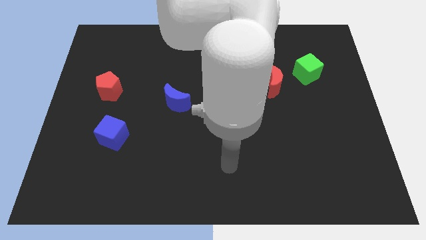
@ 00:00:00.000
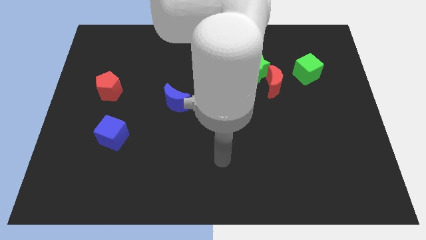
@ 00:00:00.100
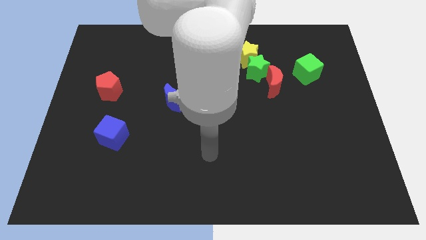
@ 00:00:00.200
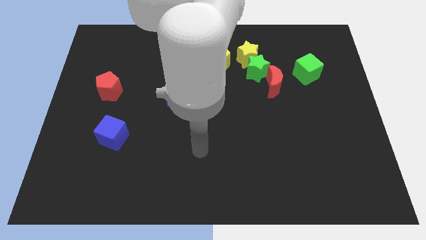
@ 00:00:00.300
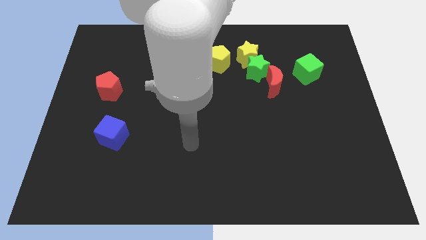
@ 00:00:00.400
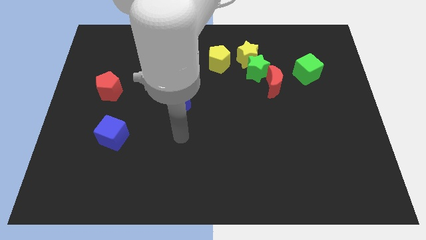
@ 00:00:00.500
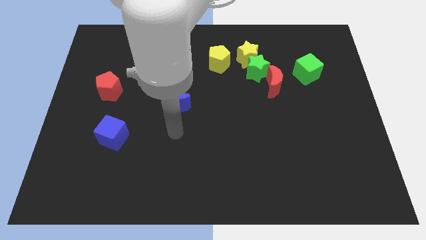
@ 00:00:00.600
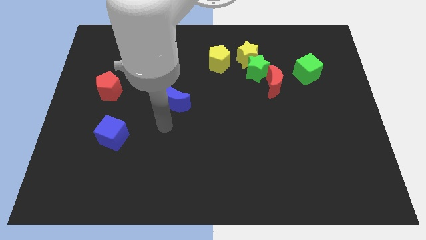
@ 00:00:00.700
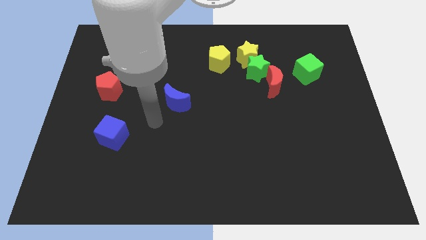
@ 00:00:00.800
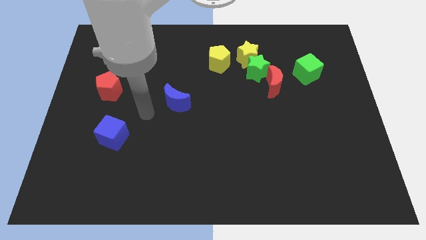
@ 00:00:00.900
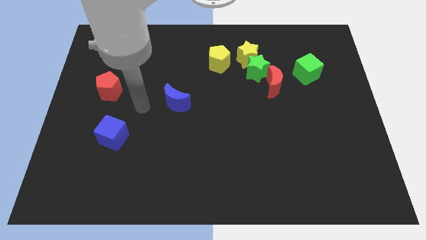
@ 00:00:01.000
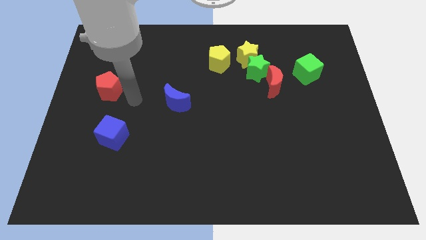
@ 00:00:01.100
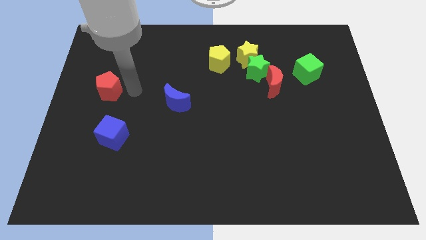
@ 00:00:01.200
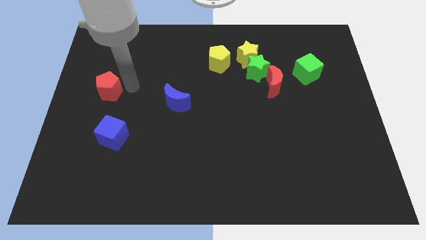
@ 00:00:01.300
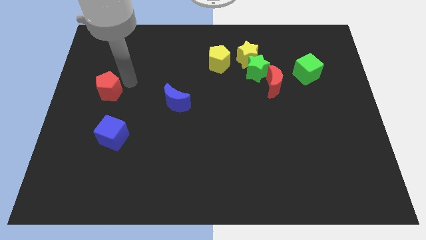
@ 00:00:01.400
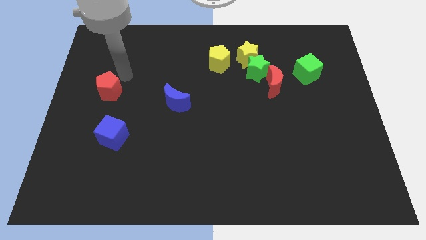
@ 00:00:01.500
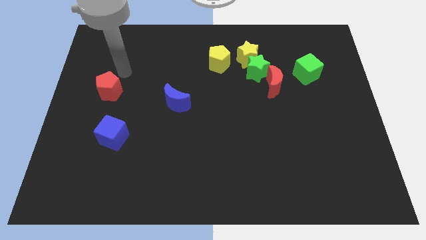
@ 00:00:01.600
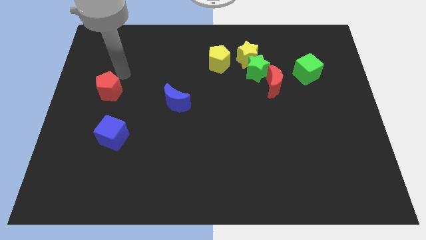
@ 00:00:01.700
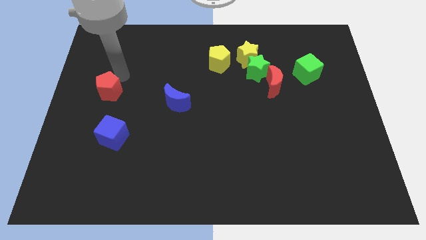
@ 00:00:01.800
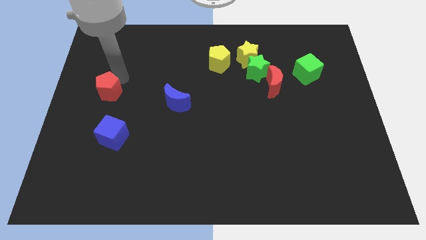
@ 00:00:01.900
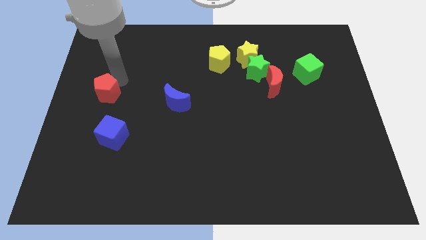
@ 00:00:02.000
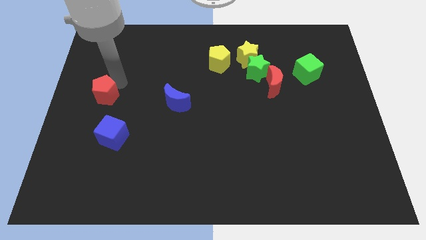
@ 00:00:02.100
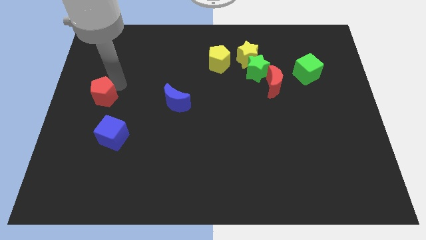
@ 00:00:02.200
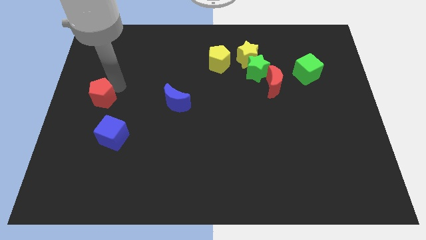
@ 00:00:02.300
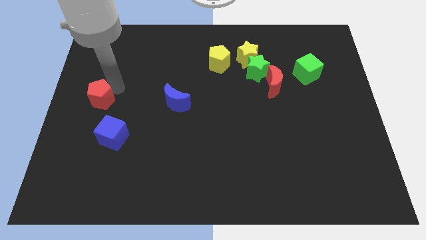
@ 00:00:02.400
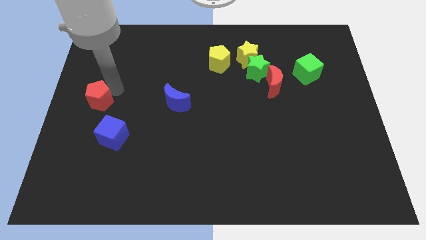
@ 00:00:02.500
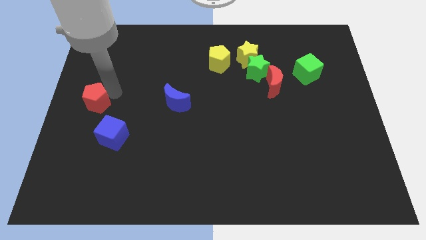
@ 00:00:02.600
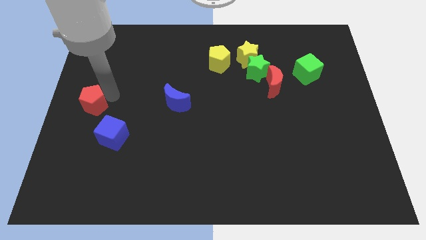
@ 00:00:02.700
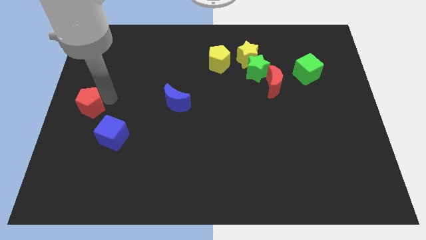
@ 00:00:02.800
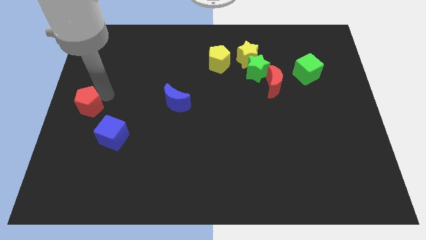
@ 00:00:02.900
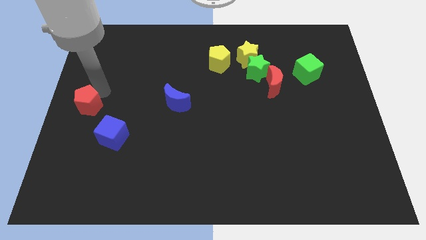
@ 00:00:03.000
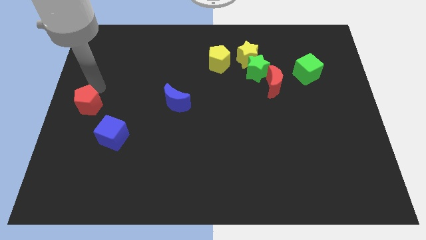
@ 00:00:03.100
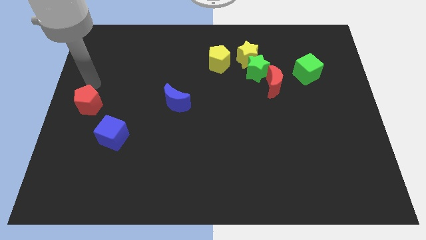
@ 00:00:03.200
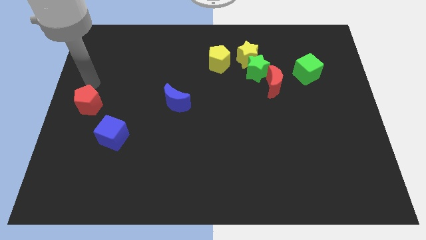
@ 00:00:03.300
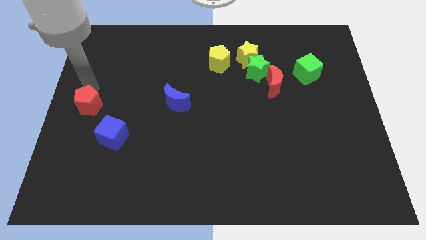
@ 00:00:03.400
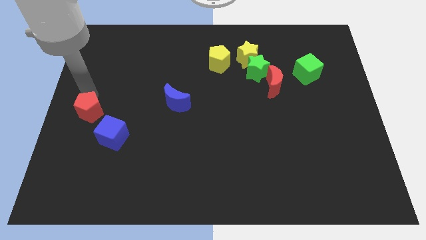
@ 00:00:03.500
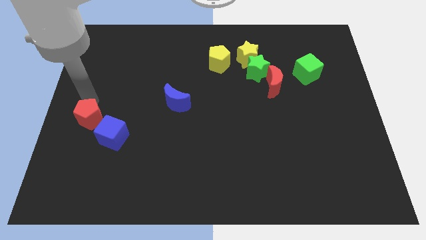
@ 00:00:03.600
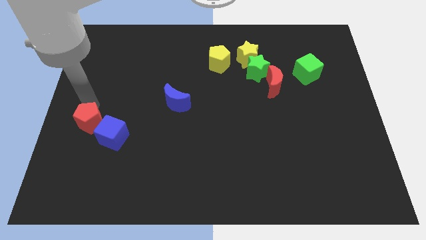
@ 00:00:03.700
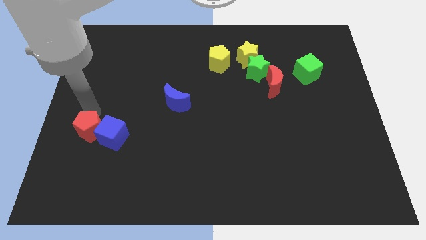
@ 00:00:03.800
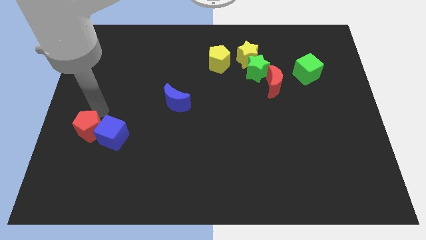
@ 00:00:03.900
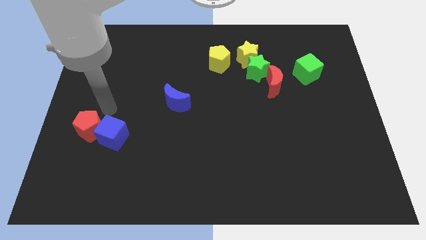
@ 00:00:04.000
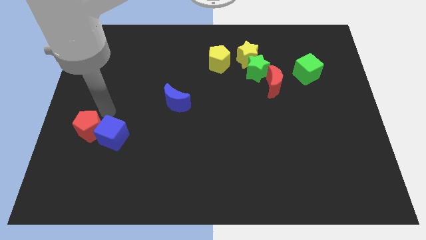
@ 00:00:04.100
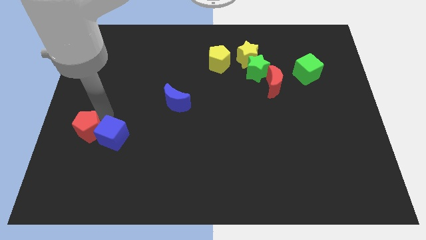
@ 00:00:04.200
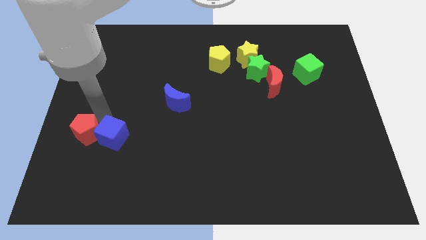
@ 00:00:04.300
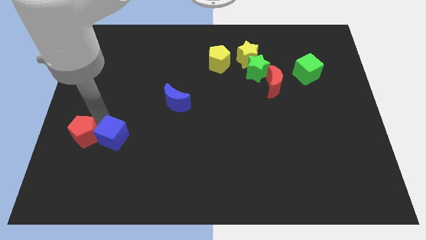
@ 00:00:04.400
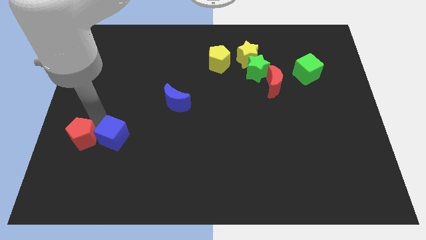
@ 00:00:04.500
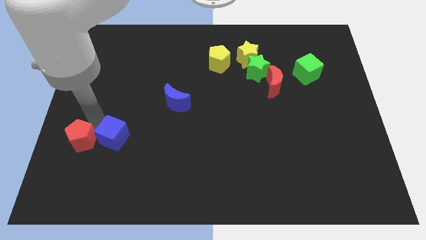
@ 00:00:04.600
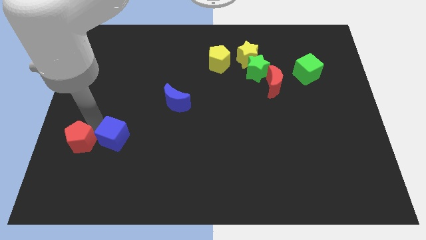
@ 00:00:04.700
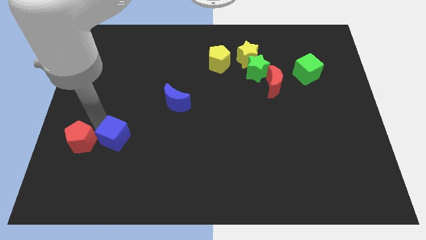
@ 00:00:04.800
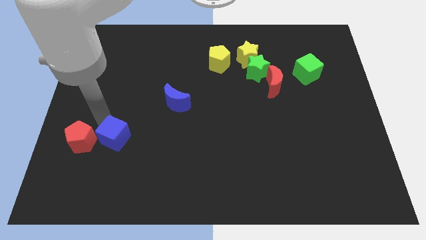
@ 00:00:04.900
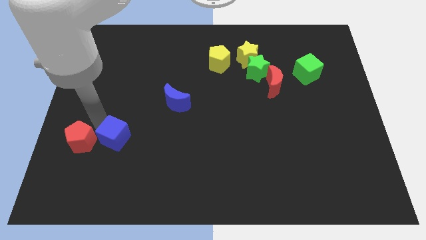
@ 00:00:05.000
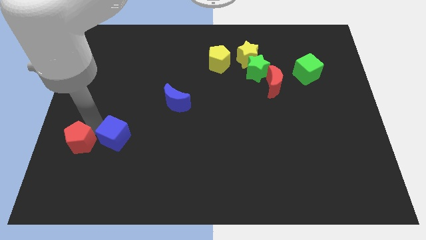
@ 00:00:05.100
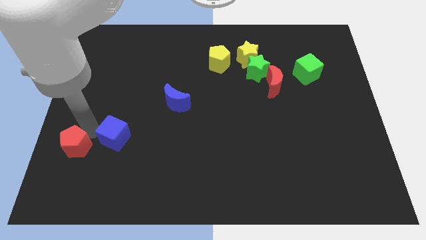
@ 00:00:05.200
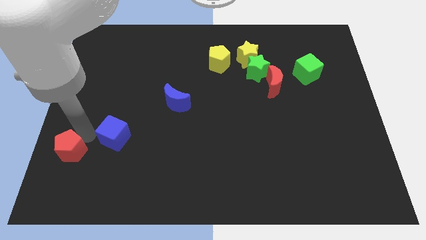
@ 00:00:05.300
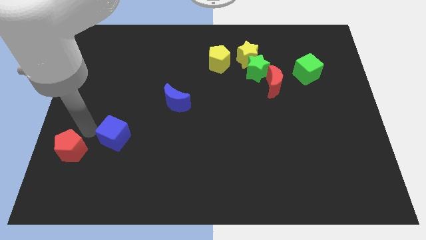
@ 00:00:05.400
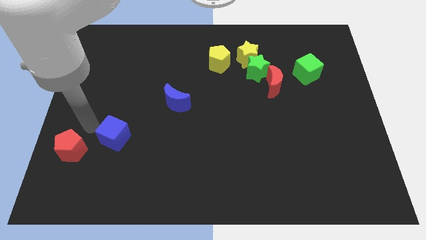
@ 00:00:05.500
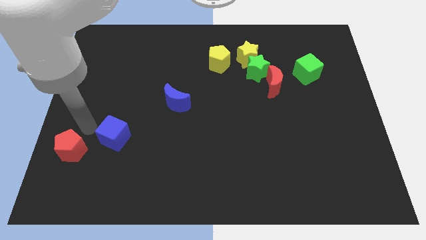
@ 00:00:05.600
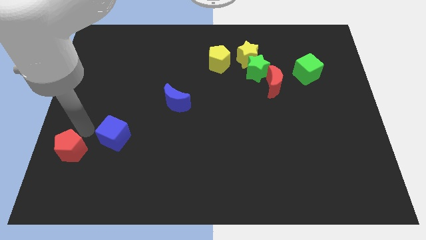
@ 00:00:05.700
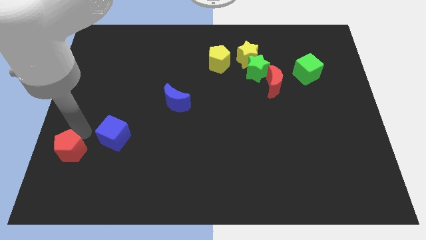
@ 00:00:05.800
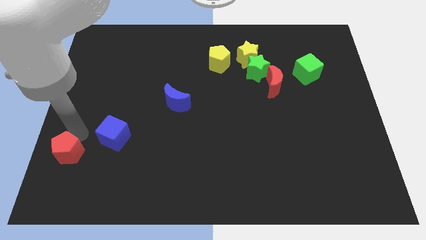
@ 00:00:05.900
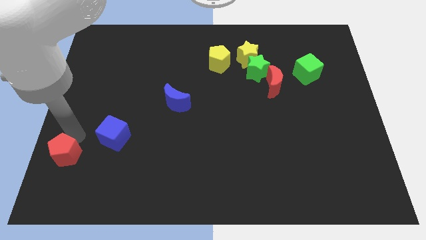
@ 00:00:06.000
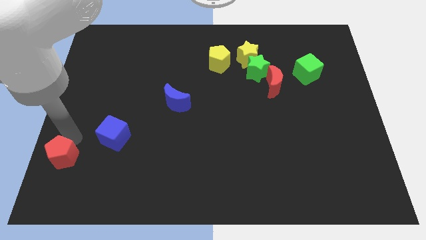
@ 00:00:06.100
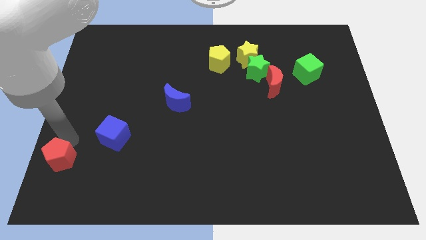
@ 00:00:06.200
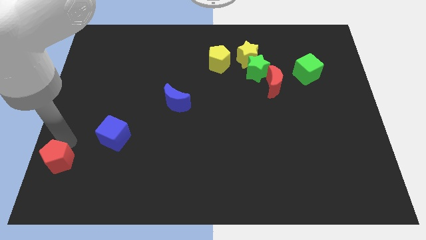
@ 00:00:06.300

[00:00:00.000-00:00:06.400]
move the red pentagon to the bottom left of the board
